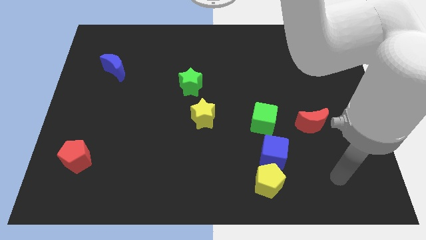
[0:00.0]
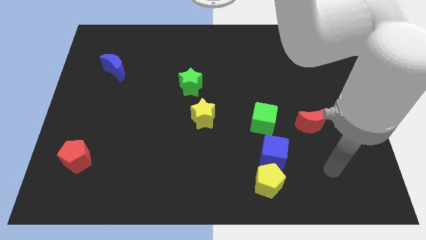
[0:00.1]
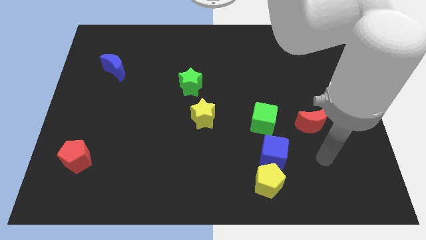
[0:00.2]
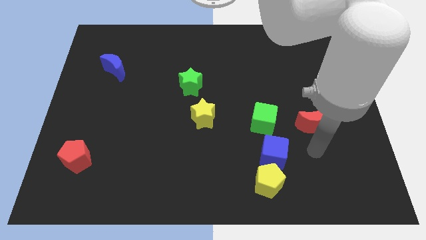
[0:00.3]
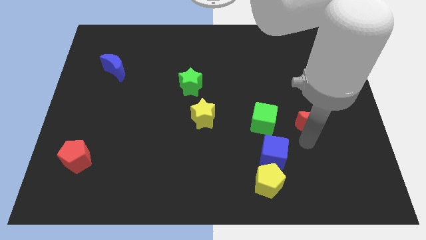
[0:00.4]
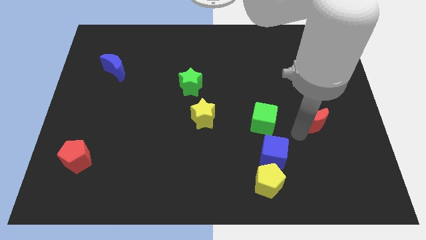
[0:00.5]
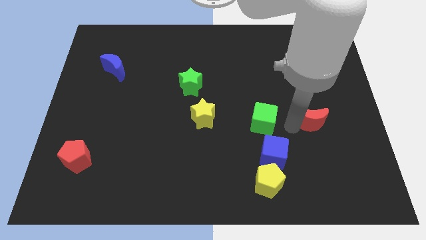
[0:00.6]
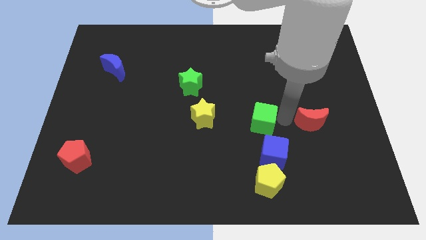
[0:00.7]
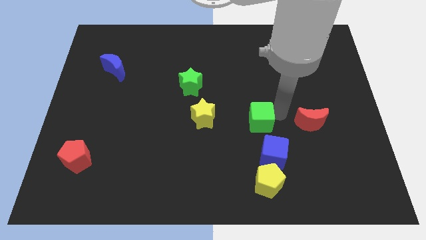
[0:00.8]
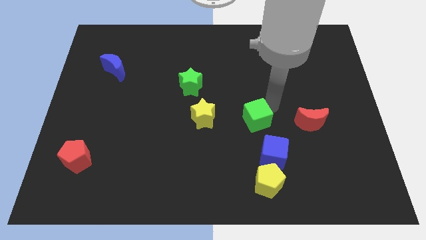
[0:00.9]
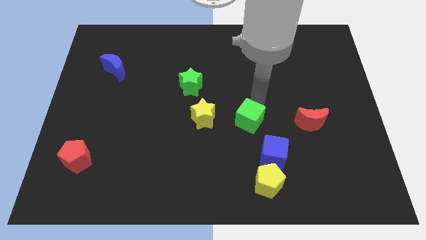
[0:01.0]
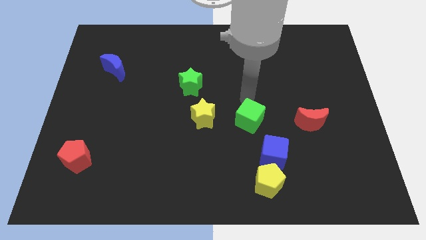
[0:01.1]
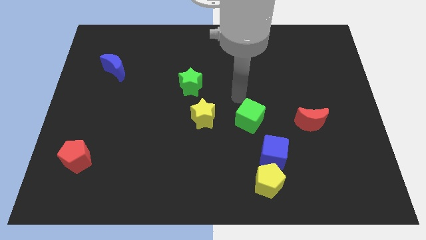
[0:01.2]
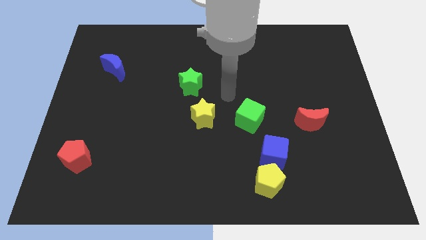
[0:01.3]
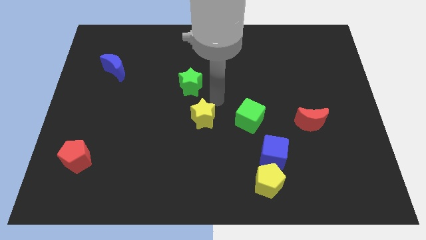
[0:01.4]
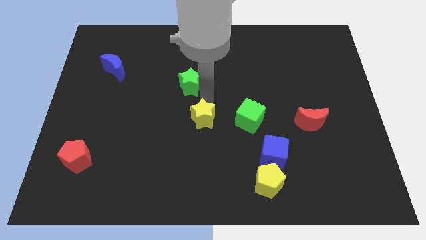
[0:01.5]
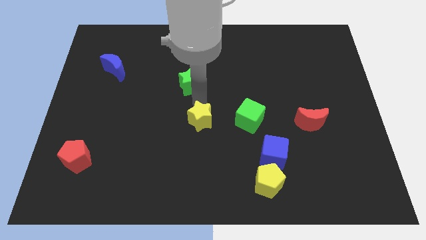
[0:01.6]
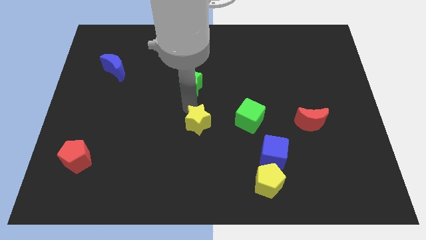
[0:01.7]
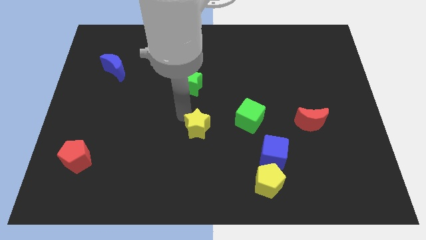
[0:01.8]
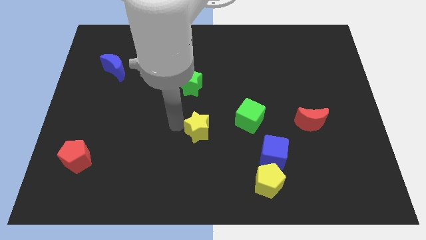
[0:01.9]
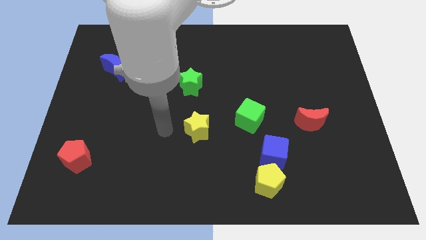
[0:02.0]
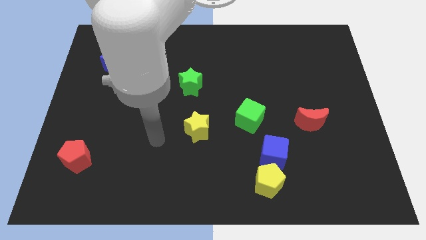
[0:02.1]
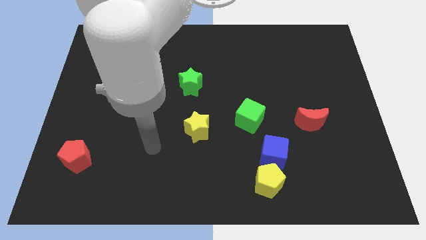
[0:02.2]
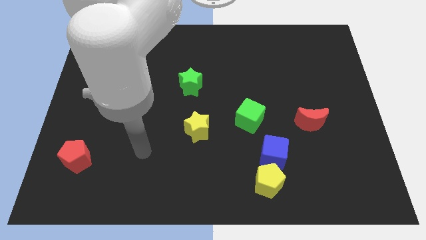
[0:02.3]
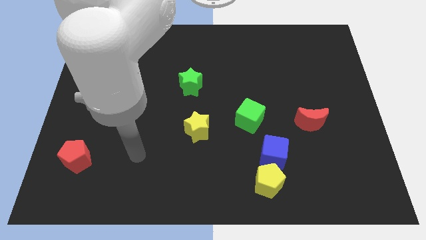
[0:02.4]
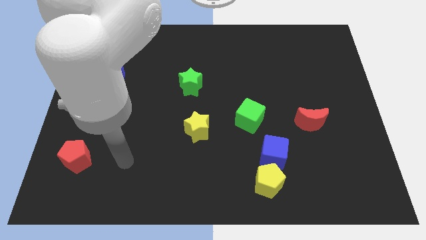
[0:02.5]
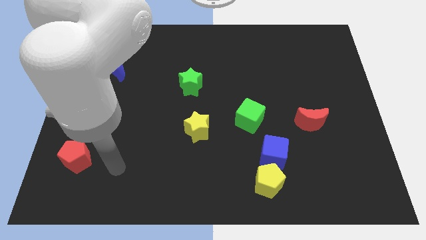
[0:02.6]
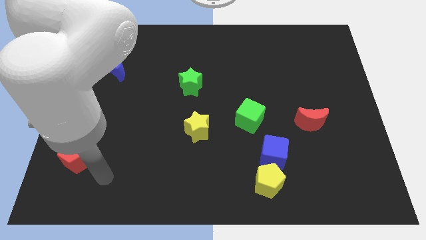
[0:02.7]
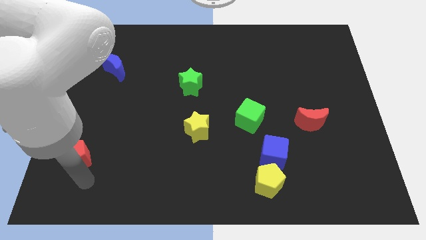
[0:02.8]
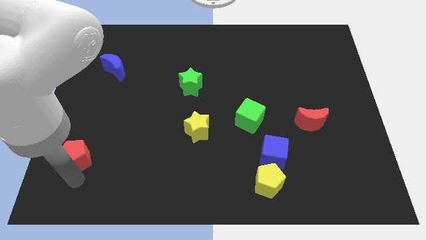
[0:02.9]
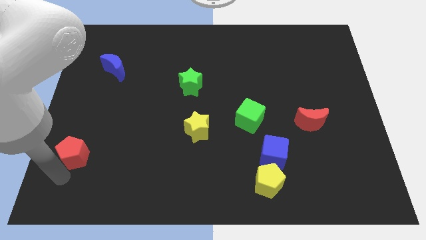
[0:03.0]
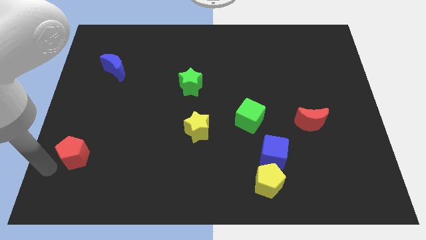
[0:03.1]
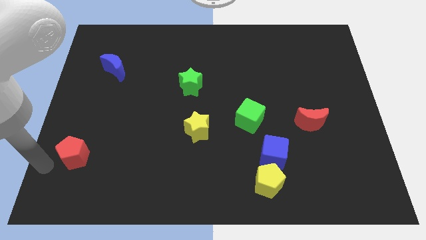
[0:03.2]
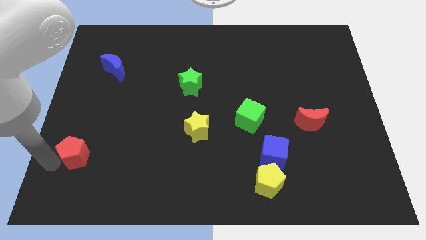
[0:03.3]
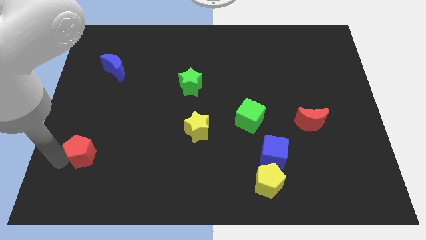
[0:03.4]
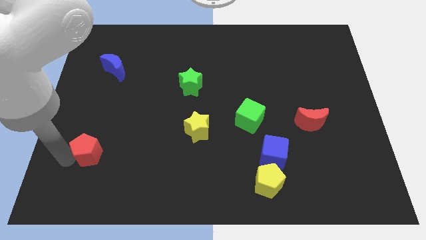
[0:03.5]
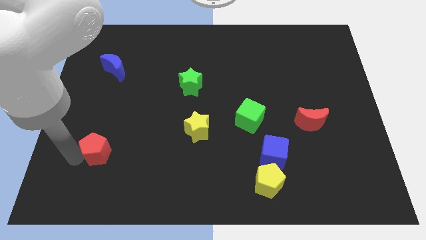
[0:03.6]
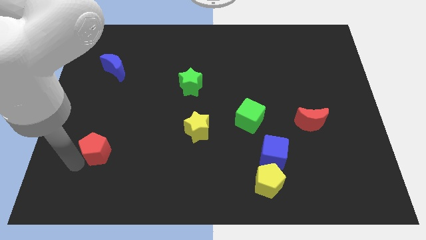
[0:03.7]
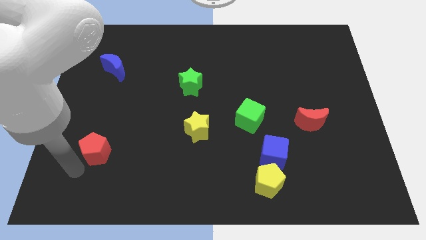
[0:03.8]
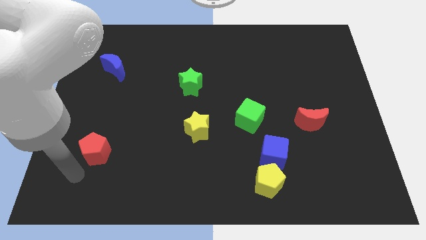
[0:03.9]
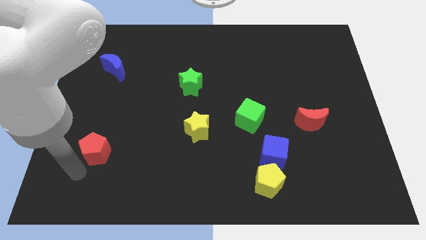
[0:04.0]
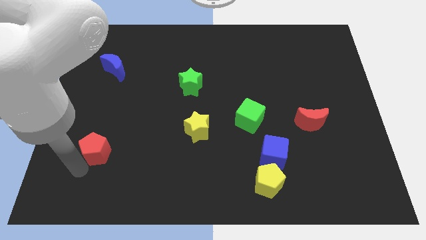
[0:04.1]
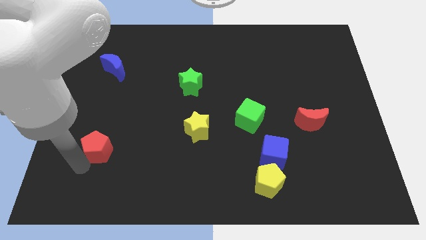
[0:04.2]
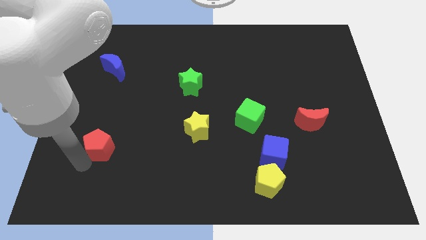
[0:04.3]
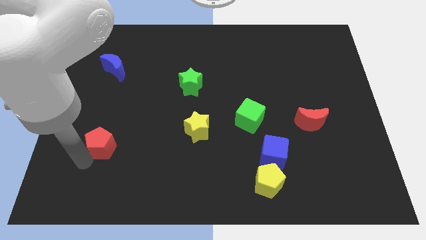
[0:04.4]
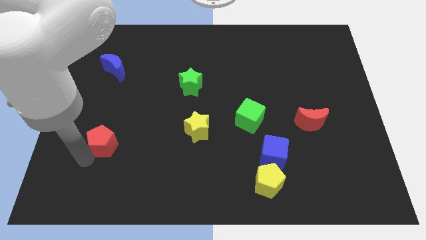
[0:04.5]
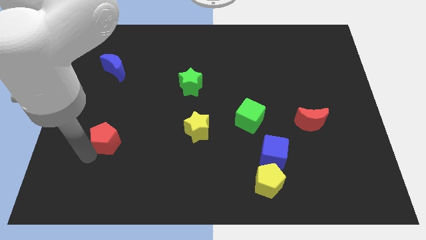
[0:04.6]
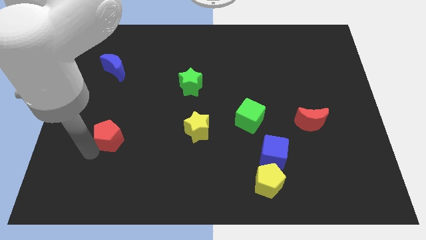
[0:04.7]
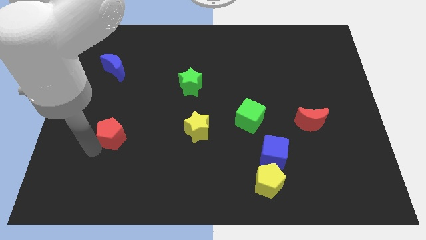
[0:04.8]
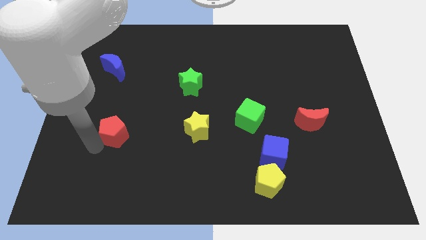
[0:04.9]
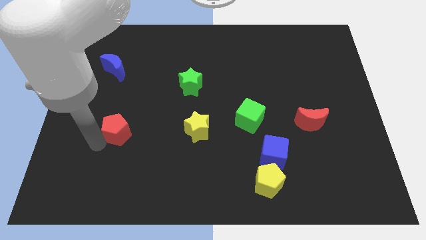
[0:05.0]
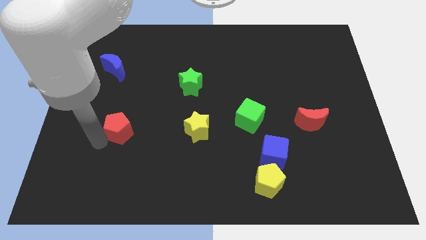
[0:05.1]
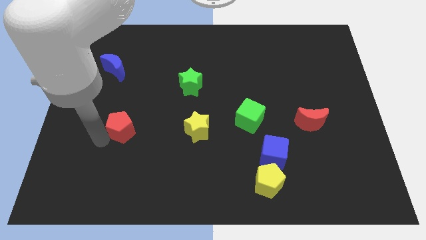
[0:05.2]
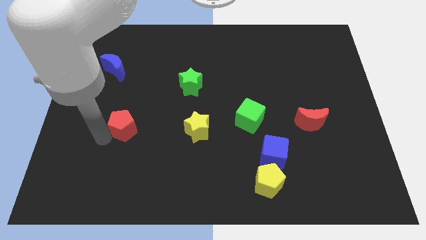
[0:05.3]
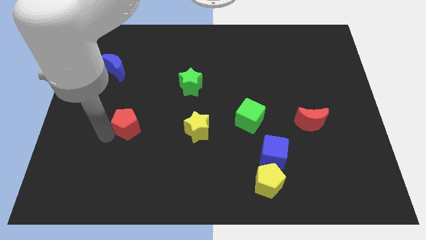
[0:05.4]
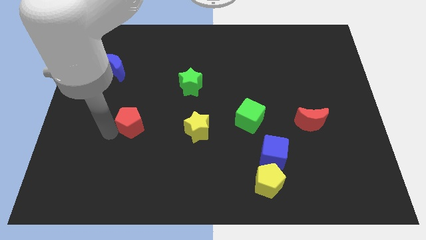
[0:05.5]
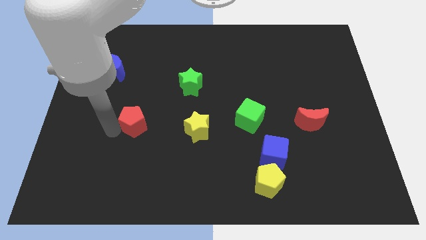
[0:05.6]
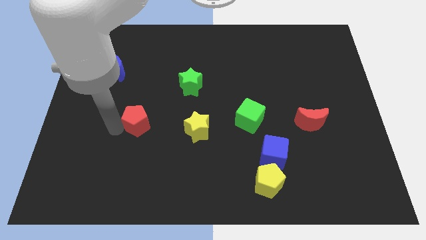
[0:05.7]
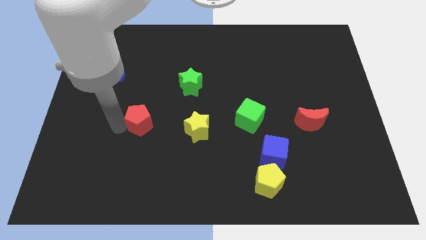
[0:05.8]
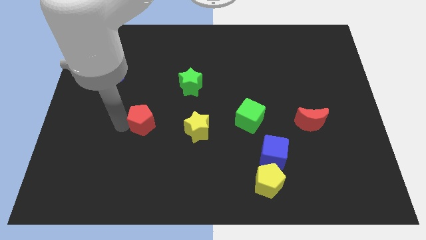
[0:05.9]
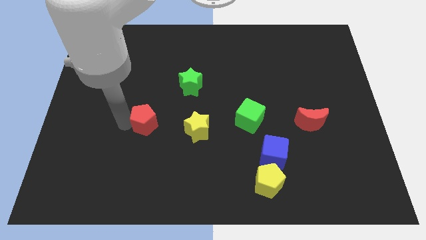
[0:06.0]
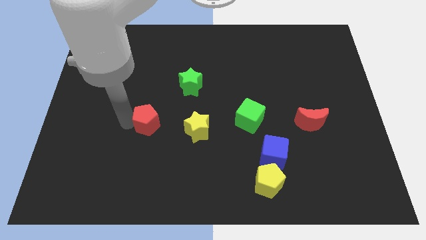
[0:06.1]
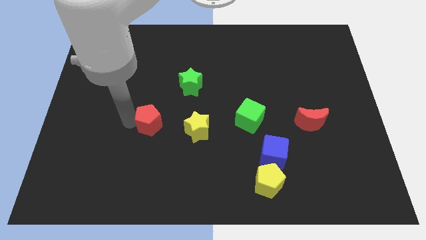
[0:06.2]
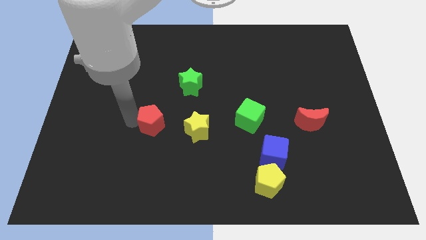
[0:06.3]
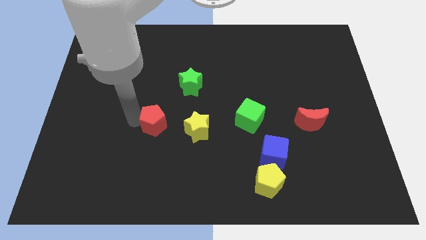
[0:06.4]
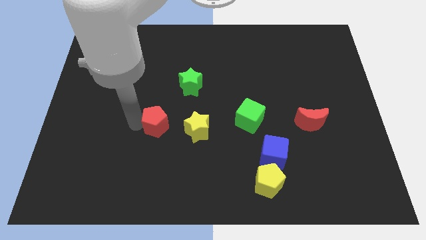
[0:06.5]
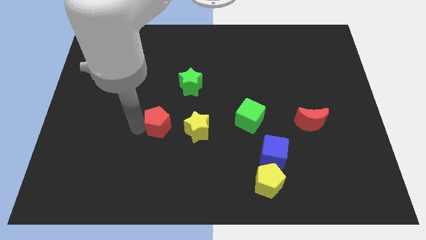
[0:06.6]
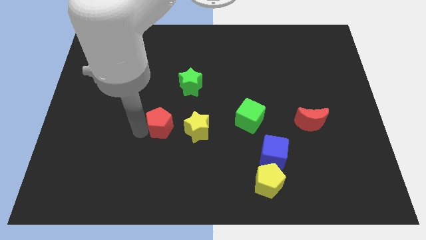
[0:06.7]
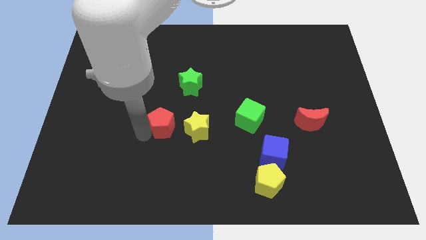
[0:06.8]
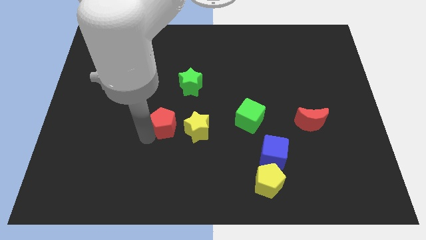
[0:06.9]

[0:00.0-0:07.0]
move the red pentagon to the top left of the yellow star

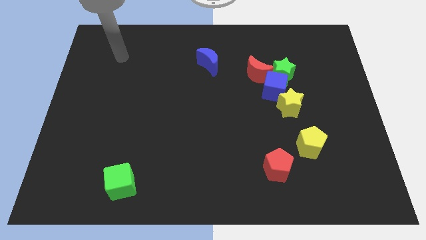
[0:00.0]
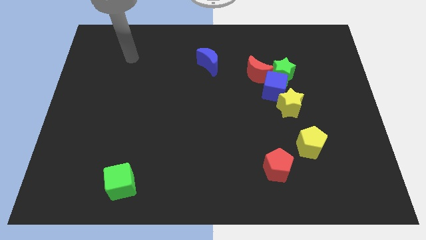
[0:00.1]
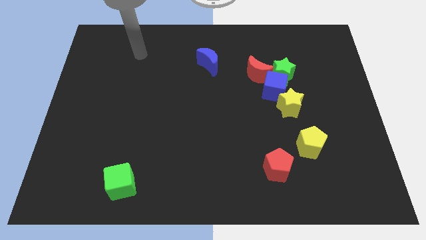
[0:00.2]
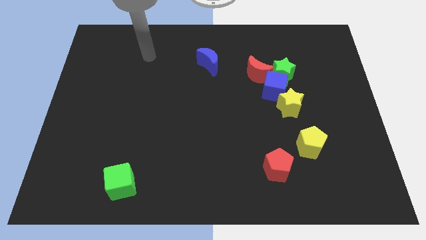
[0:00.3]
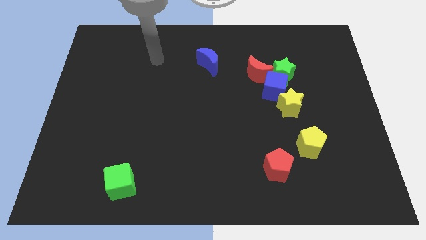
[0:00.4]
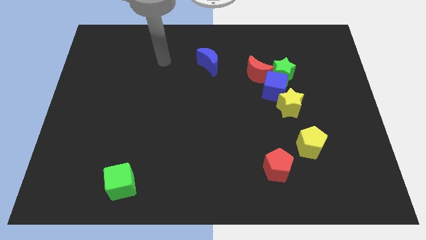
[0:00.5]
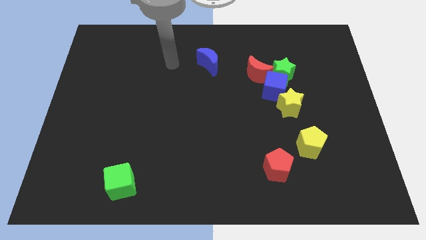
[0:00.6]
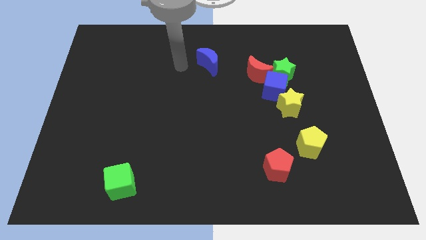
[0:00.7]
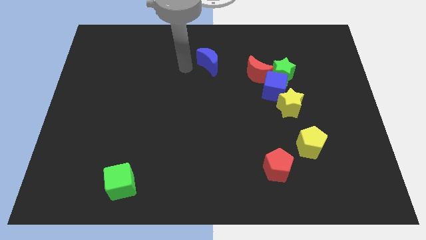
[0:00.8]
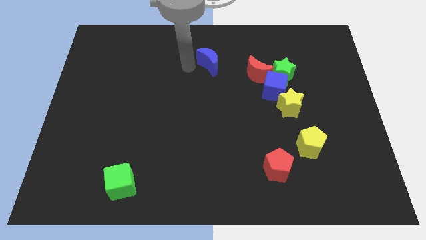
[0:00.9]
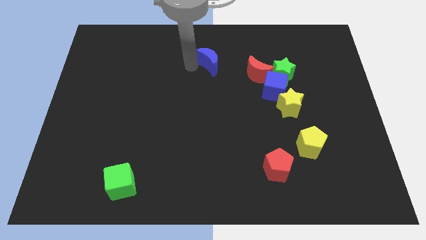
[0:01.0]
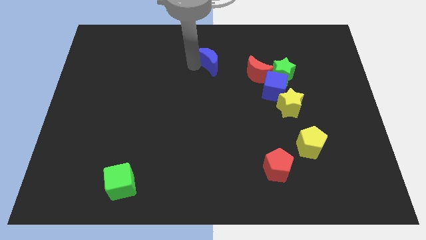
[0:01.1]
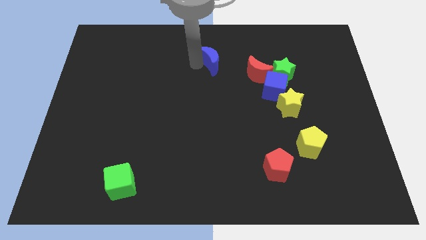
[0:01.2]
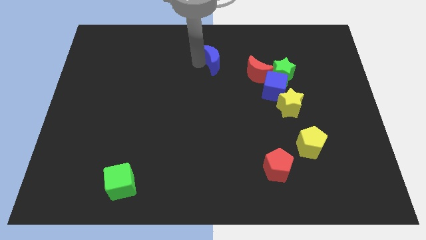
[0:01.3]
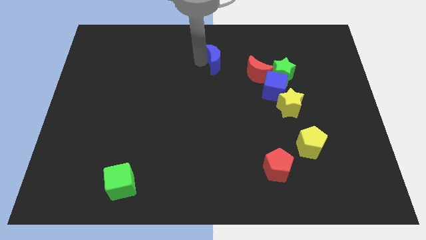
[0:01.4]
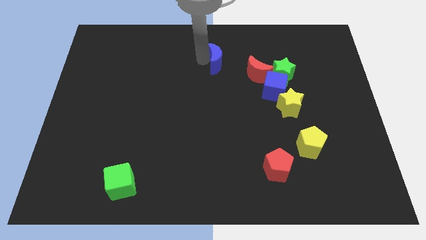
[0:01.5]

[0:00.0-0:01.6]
push the blue moon to the top left side of the red moon
